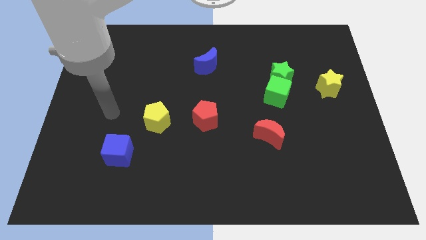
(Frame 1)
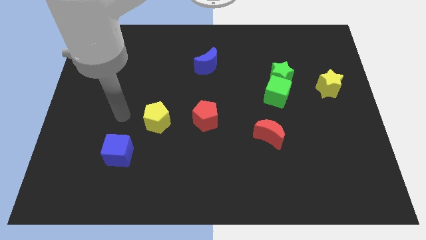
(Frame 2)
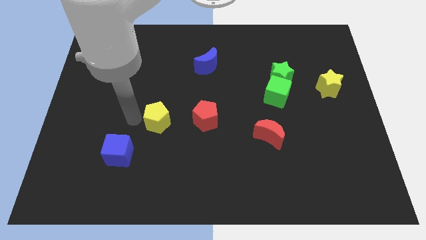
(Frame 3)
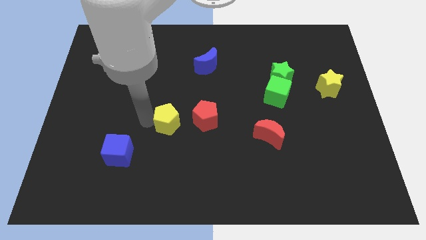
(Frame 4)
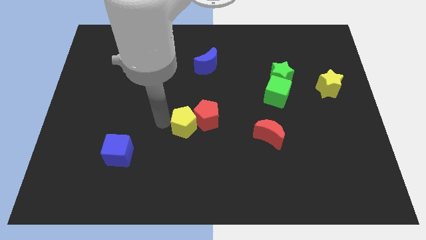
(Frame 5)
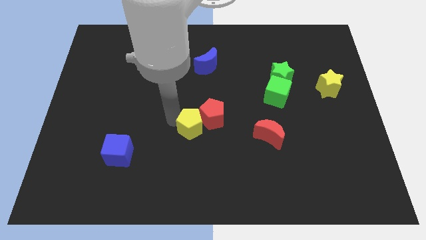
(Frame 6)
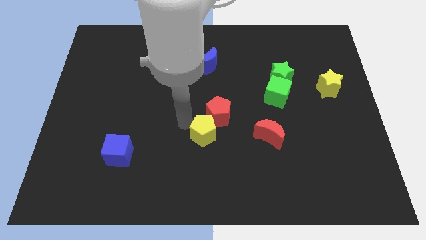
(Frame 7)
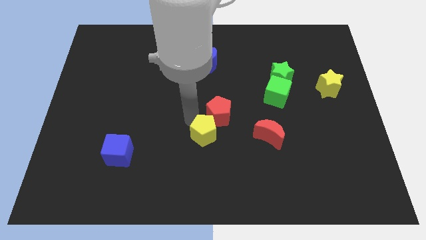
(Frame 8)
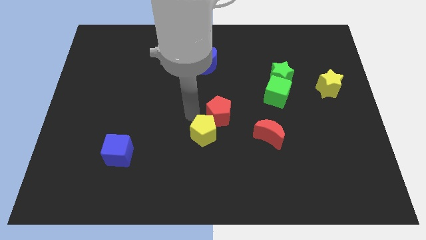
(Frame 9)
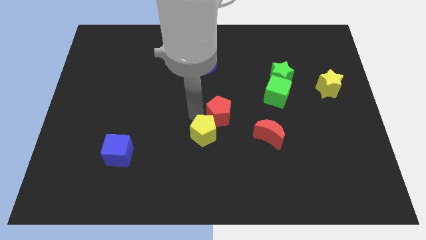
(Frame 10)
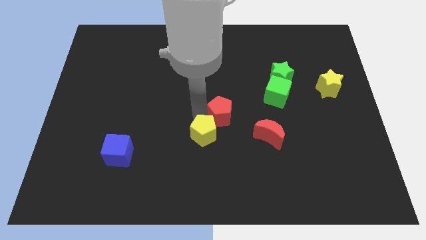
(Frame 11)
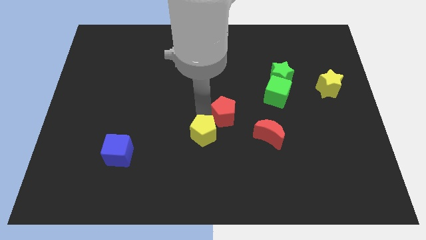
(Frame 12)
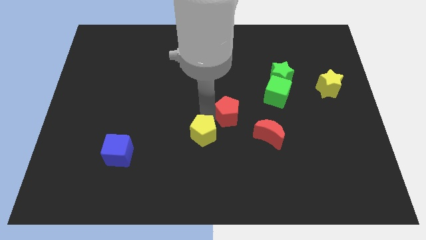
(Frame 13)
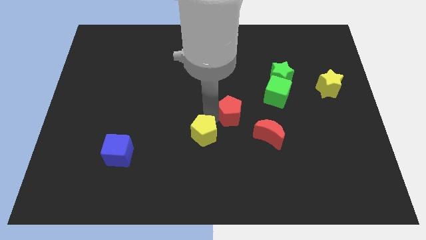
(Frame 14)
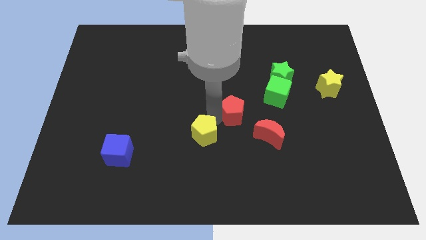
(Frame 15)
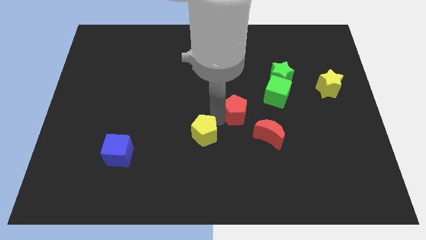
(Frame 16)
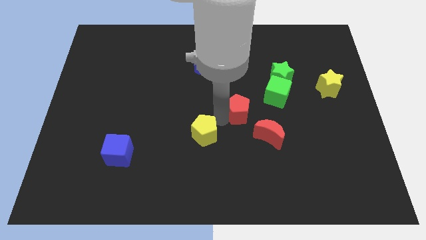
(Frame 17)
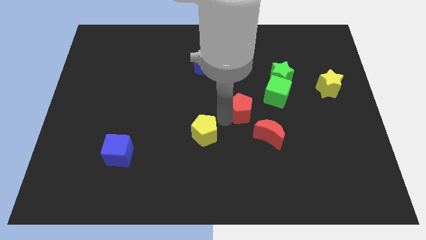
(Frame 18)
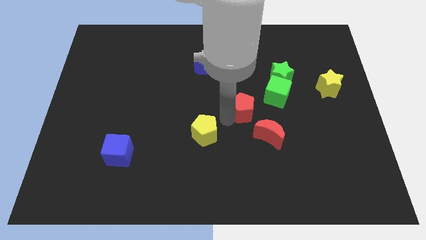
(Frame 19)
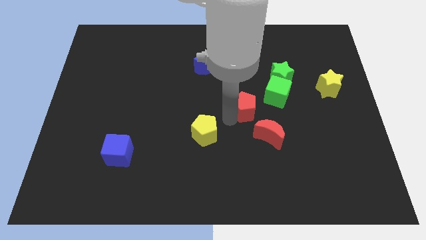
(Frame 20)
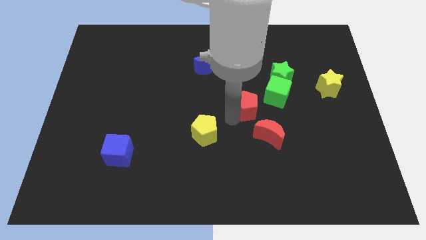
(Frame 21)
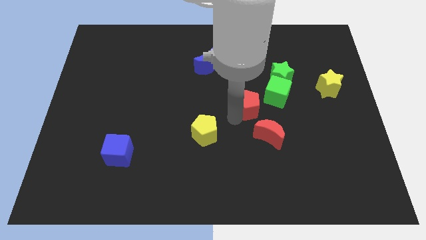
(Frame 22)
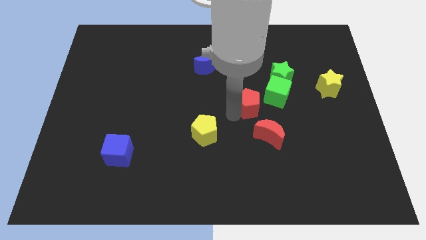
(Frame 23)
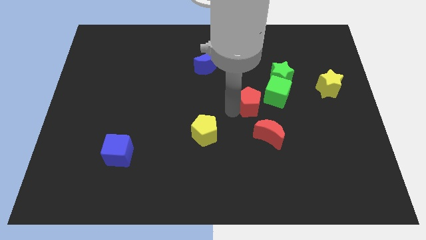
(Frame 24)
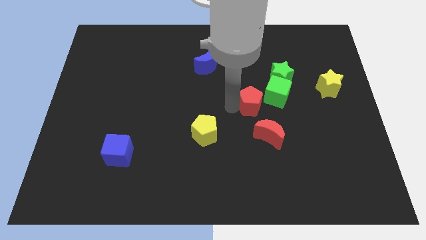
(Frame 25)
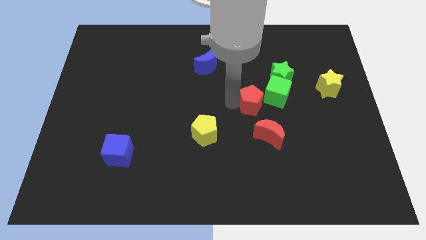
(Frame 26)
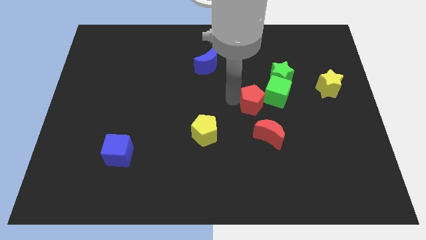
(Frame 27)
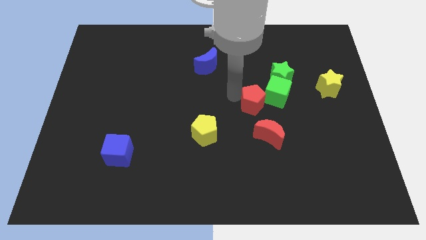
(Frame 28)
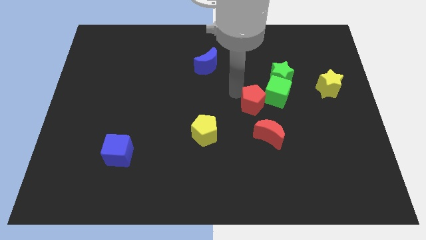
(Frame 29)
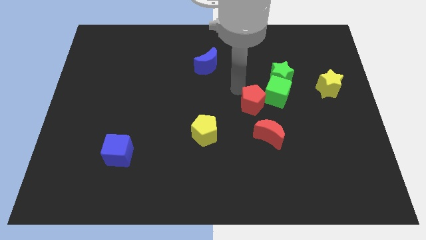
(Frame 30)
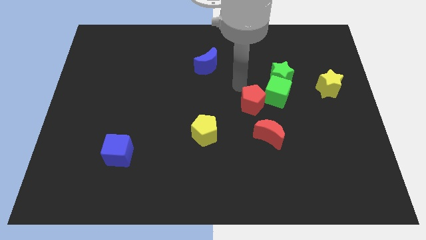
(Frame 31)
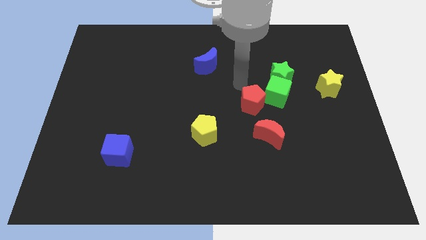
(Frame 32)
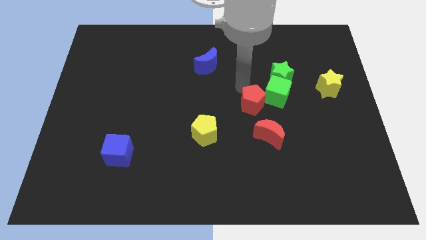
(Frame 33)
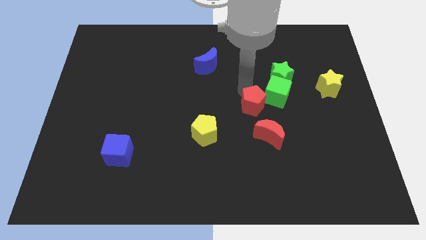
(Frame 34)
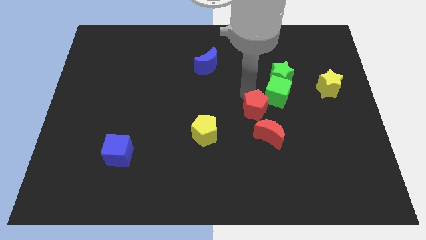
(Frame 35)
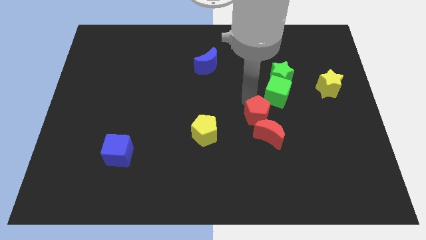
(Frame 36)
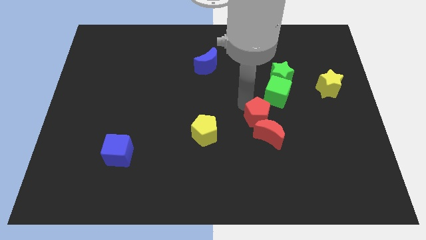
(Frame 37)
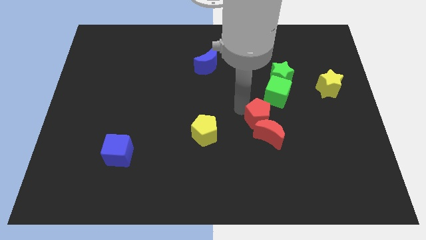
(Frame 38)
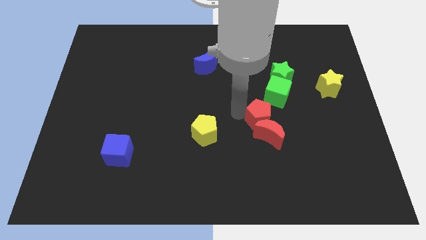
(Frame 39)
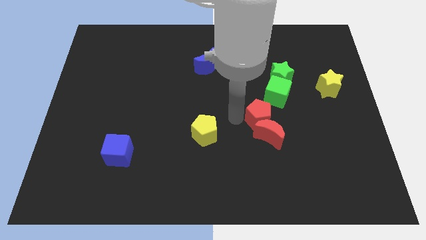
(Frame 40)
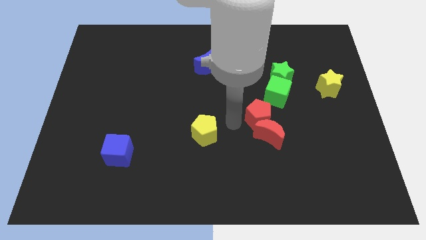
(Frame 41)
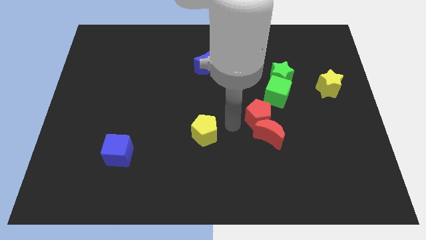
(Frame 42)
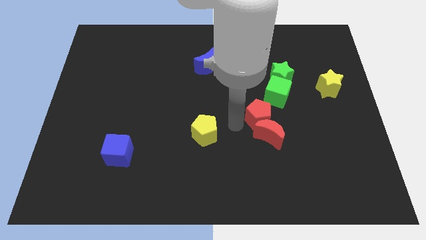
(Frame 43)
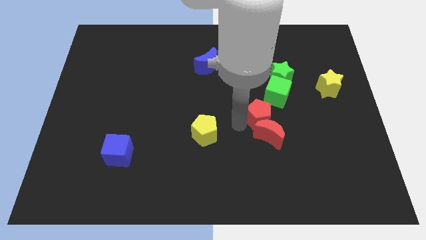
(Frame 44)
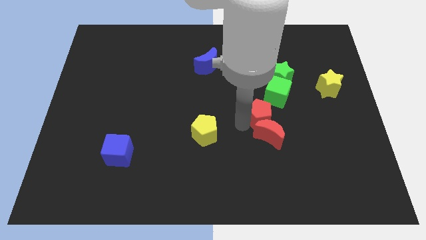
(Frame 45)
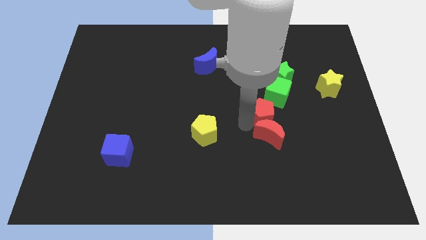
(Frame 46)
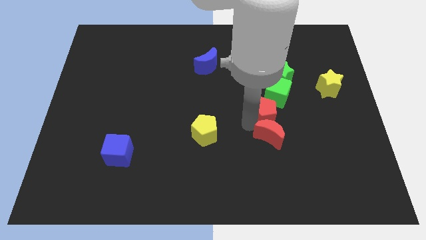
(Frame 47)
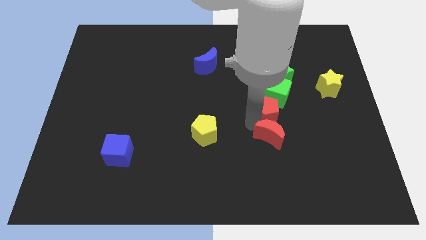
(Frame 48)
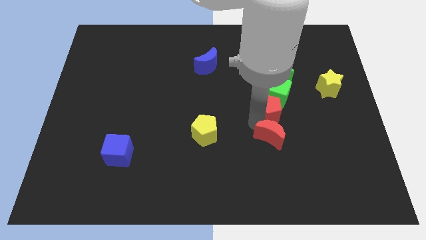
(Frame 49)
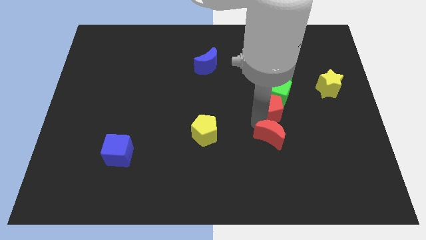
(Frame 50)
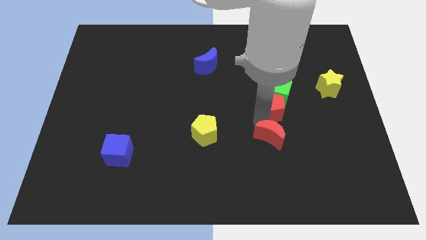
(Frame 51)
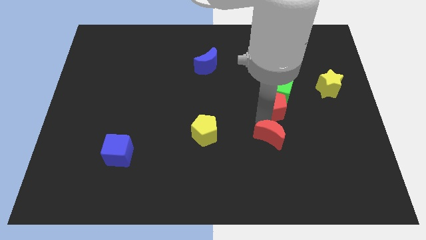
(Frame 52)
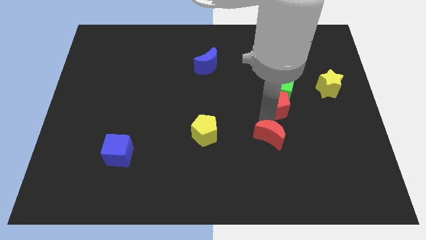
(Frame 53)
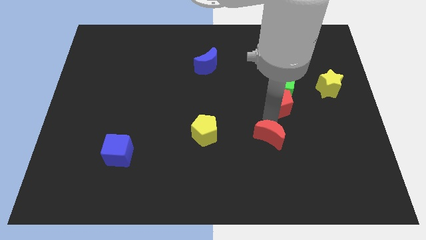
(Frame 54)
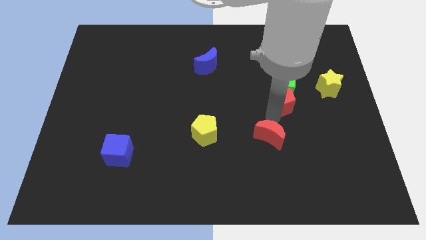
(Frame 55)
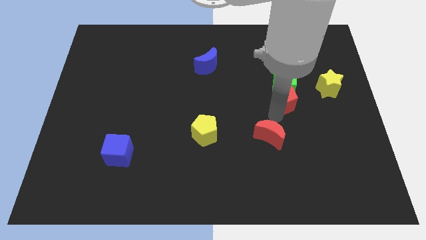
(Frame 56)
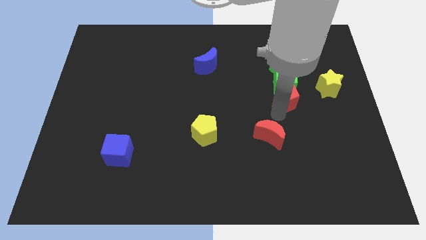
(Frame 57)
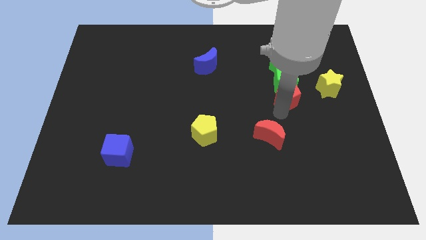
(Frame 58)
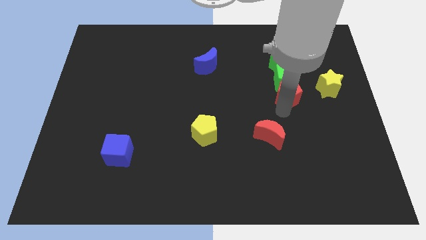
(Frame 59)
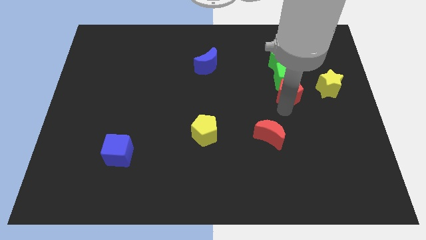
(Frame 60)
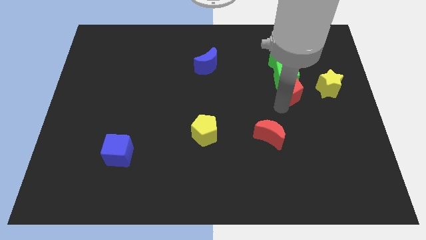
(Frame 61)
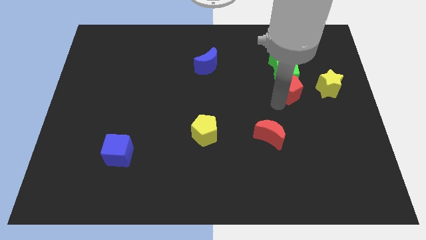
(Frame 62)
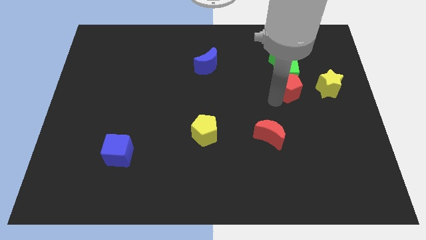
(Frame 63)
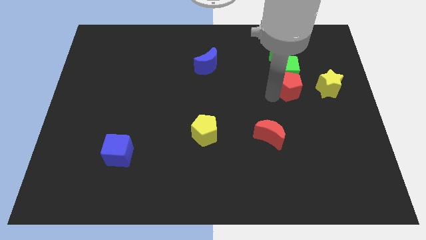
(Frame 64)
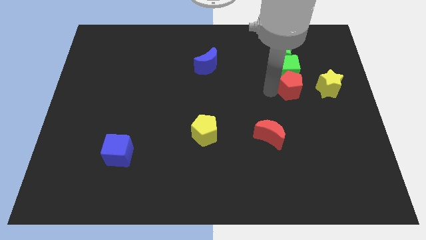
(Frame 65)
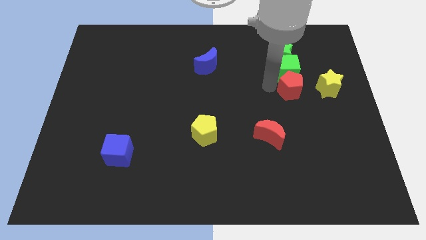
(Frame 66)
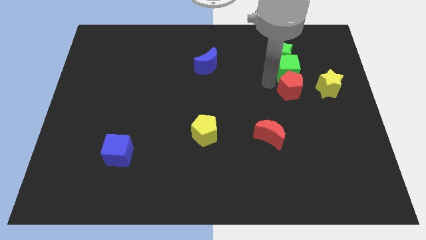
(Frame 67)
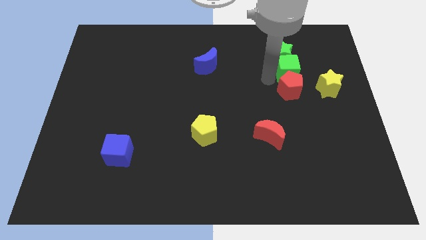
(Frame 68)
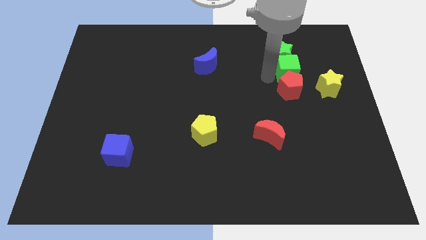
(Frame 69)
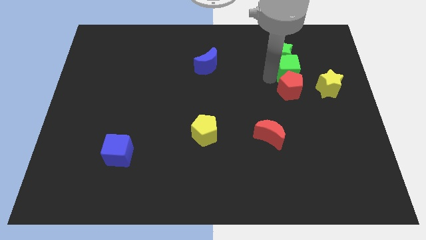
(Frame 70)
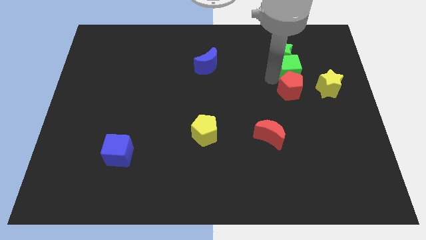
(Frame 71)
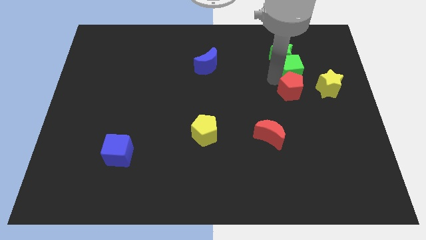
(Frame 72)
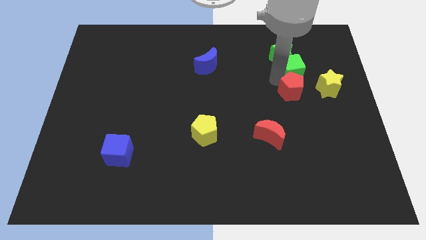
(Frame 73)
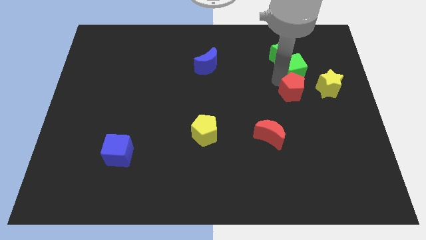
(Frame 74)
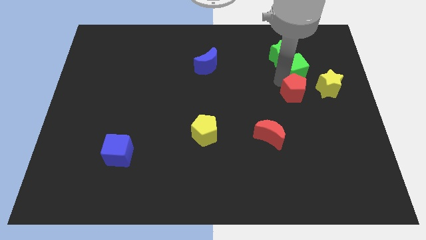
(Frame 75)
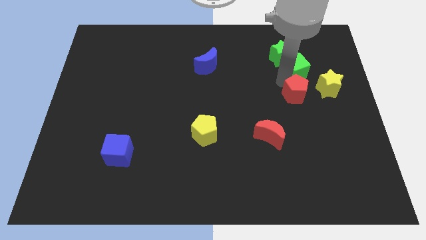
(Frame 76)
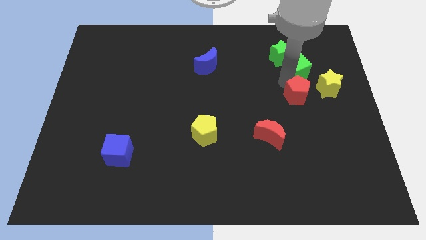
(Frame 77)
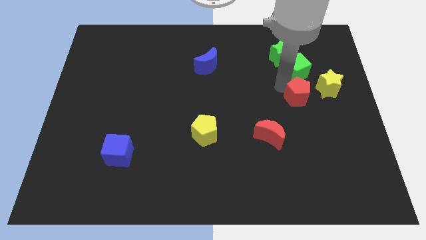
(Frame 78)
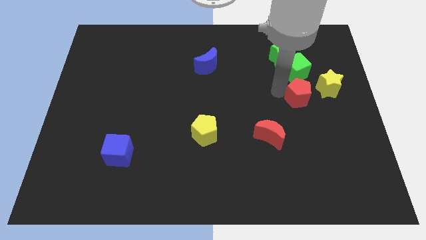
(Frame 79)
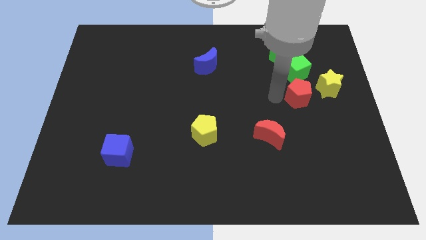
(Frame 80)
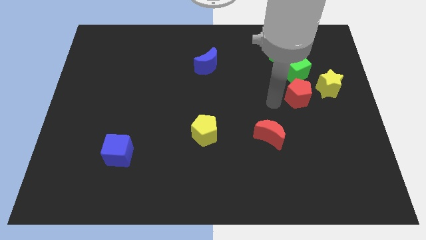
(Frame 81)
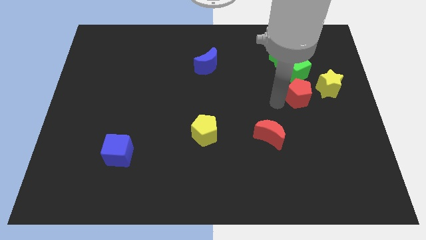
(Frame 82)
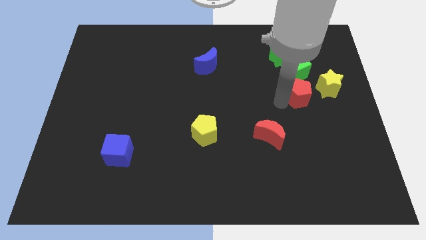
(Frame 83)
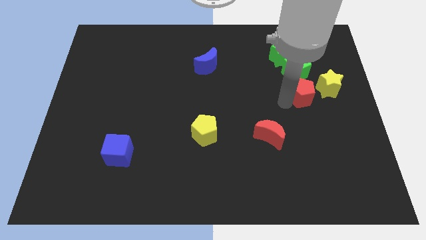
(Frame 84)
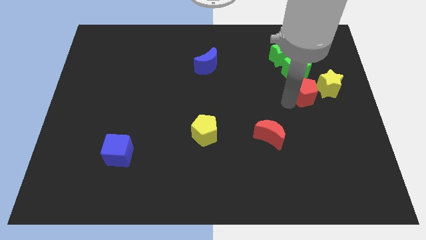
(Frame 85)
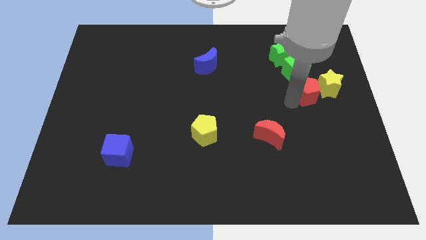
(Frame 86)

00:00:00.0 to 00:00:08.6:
slide the red pentagon towards the yellow star
